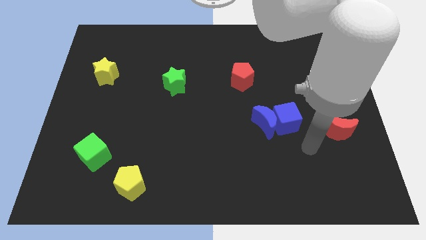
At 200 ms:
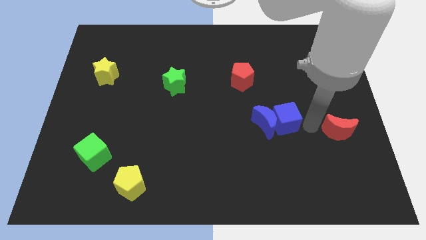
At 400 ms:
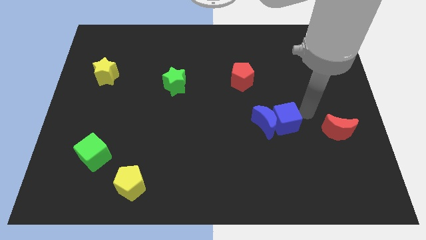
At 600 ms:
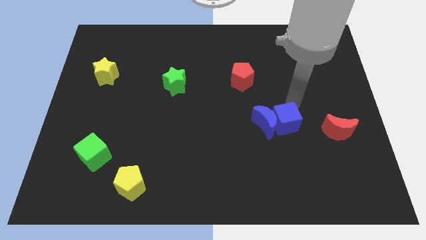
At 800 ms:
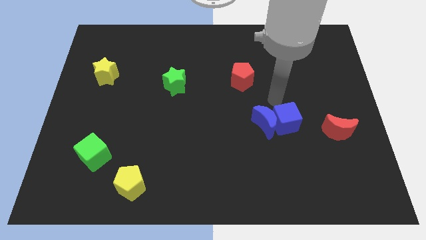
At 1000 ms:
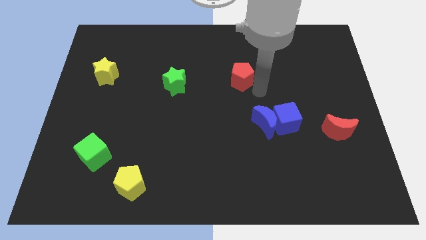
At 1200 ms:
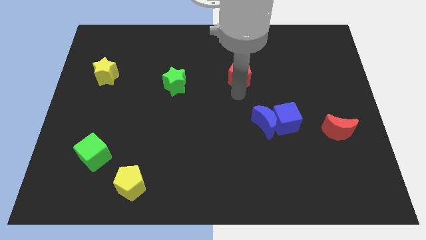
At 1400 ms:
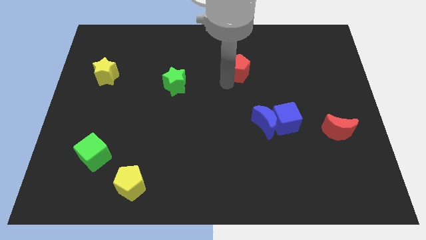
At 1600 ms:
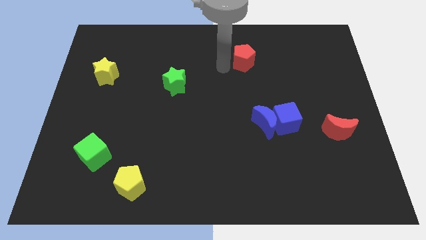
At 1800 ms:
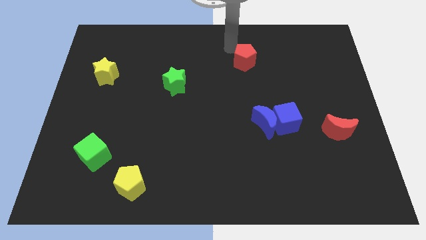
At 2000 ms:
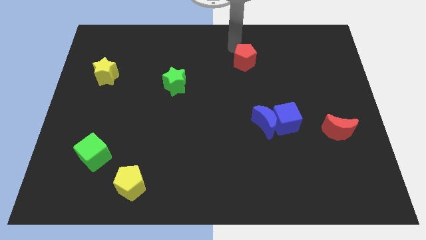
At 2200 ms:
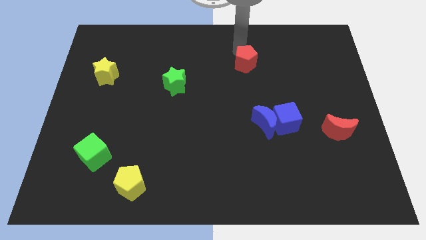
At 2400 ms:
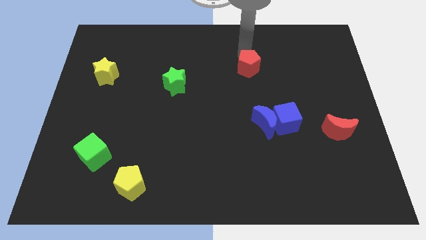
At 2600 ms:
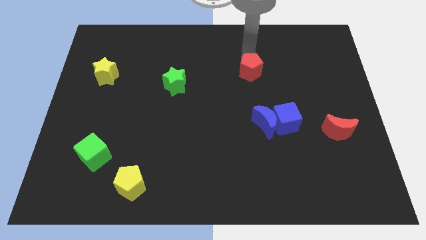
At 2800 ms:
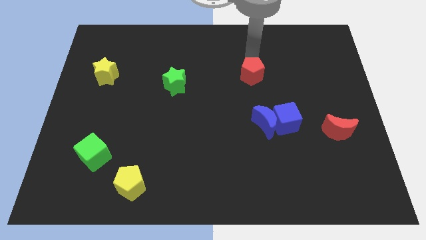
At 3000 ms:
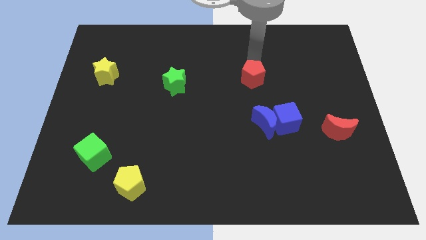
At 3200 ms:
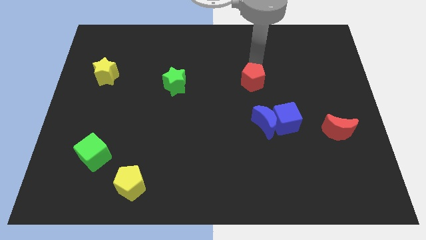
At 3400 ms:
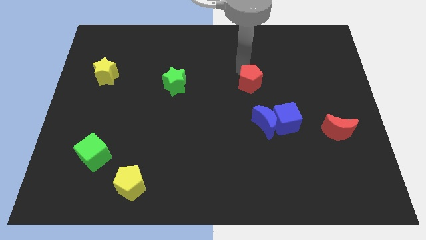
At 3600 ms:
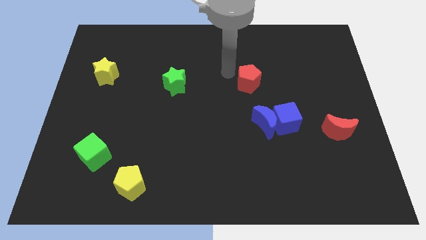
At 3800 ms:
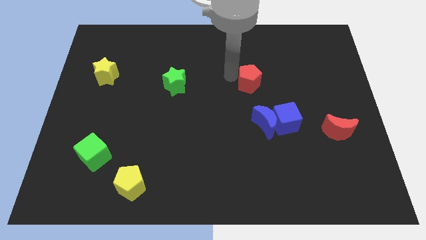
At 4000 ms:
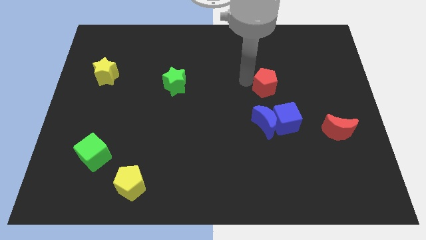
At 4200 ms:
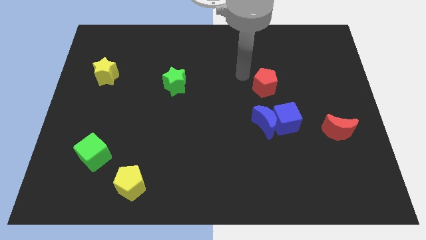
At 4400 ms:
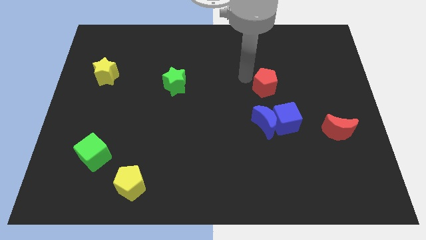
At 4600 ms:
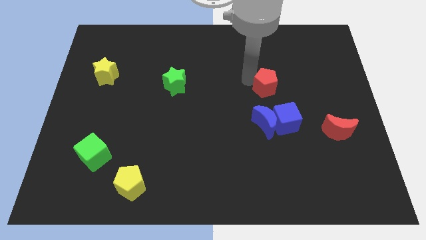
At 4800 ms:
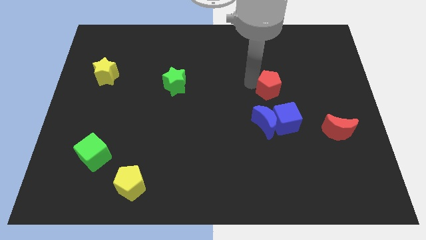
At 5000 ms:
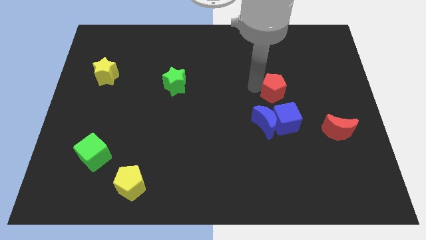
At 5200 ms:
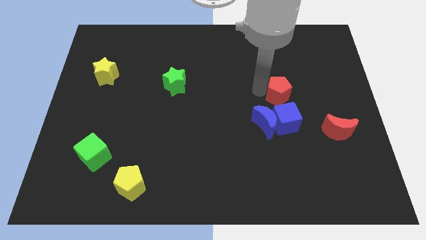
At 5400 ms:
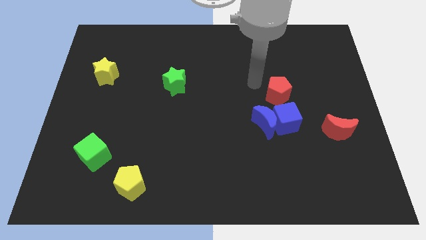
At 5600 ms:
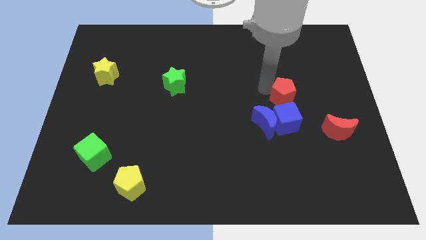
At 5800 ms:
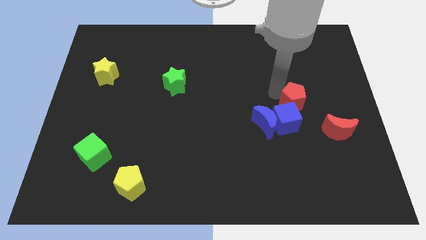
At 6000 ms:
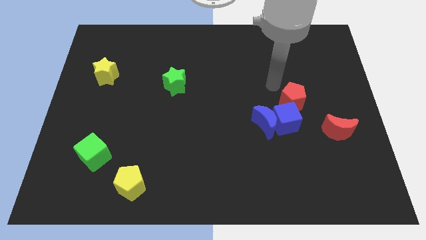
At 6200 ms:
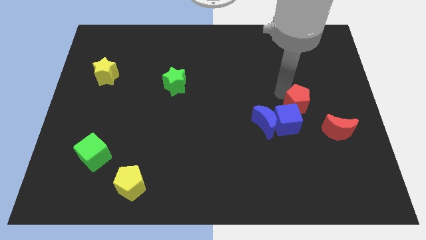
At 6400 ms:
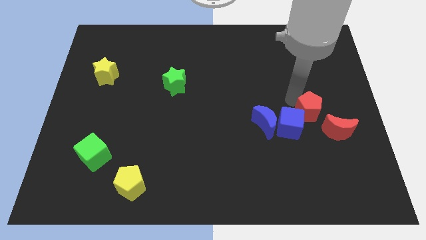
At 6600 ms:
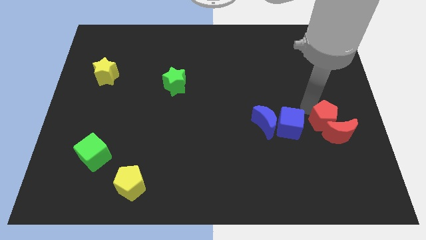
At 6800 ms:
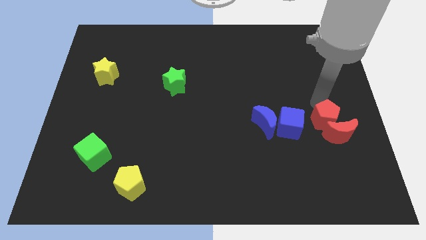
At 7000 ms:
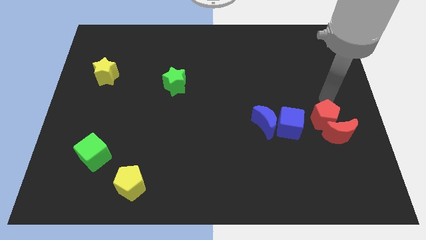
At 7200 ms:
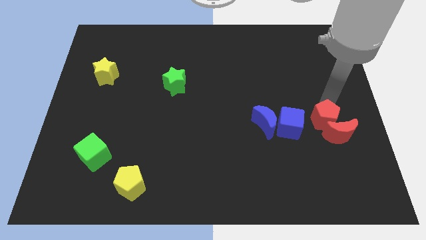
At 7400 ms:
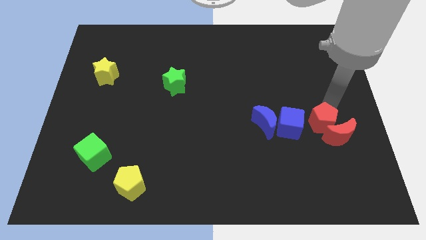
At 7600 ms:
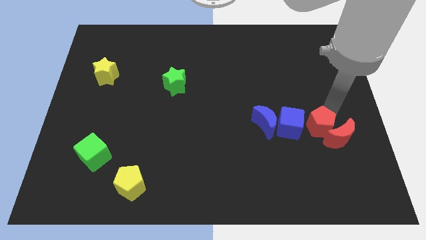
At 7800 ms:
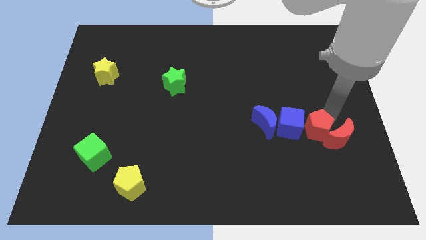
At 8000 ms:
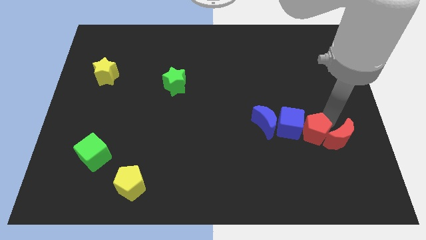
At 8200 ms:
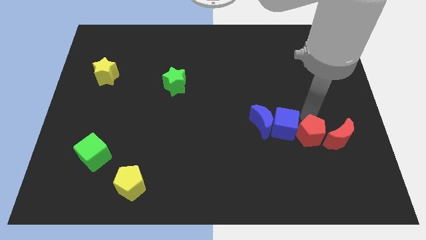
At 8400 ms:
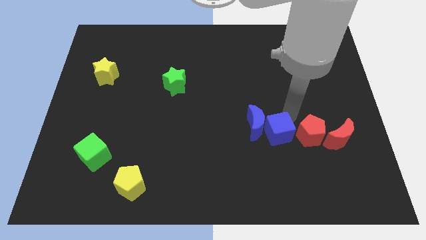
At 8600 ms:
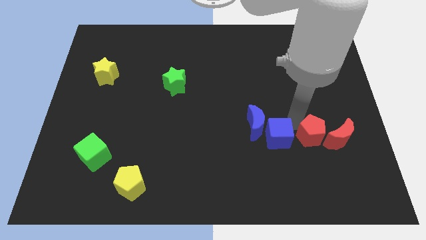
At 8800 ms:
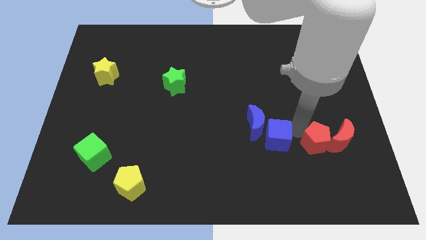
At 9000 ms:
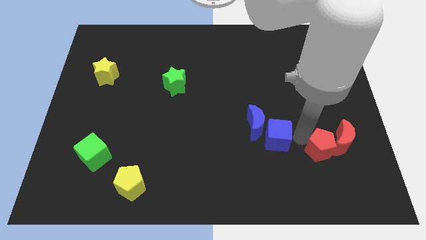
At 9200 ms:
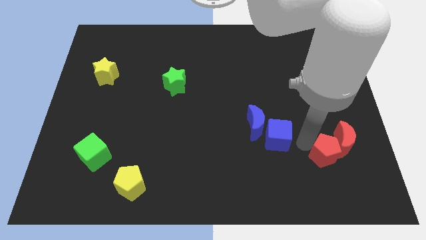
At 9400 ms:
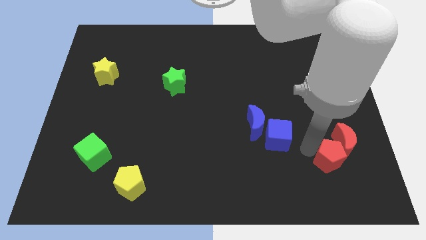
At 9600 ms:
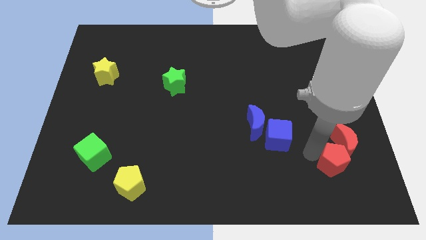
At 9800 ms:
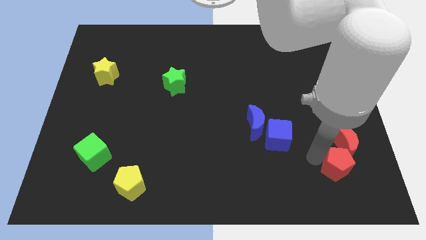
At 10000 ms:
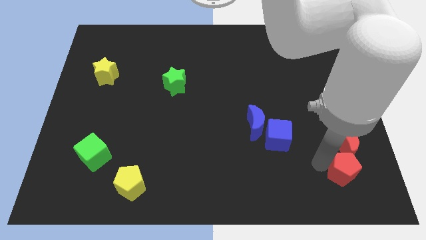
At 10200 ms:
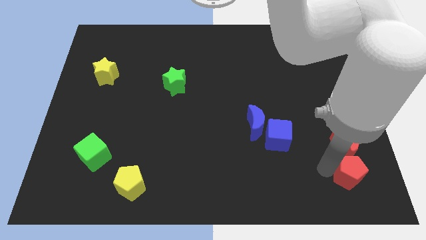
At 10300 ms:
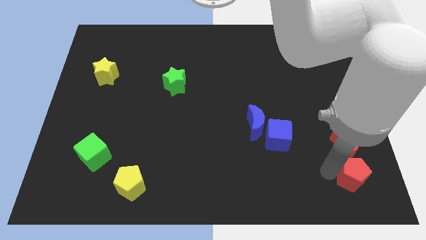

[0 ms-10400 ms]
move the red pentagon to the bottom right

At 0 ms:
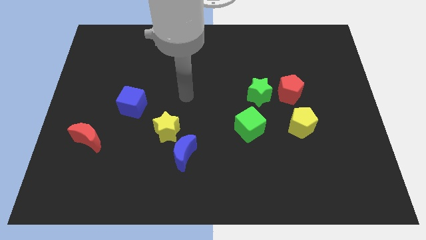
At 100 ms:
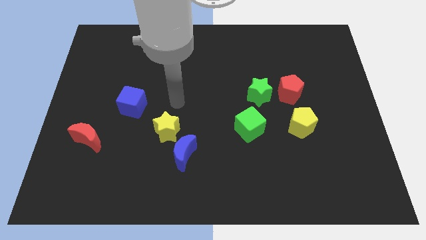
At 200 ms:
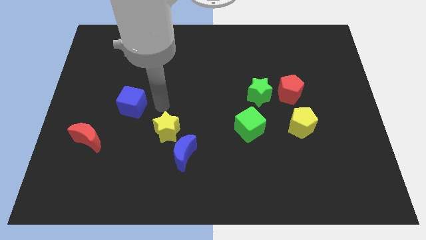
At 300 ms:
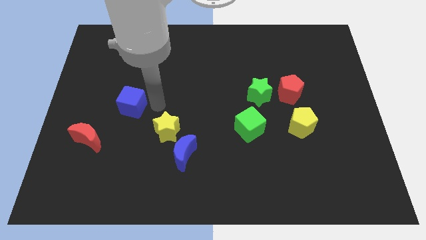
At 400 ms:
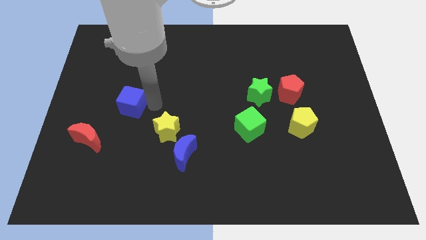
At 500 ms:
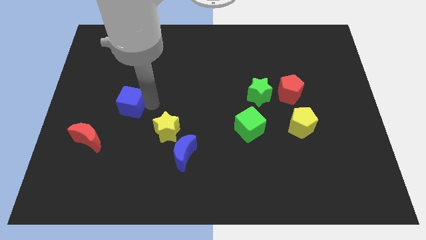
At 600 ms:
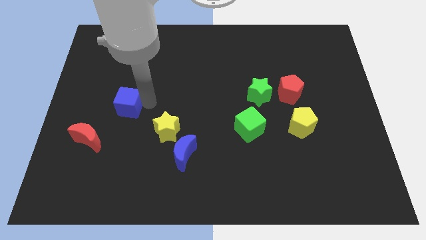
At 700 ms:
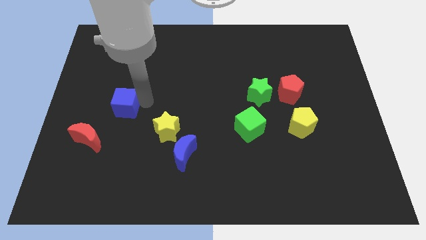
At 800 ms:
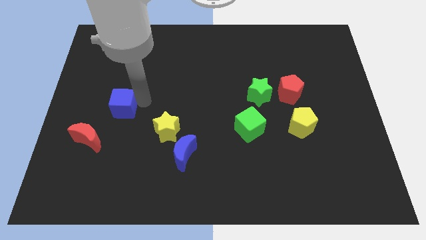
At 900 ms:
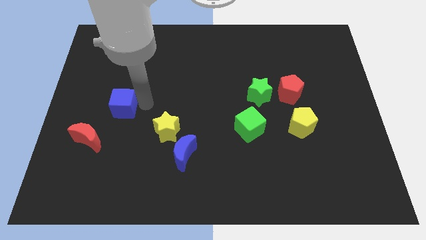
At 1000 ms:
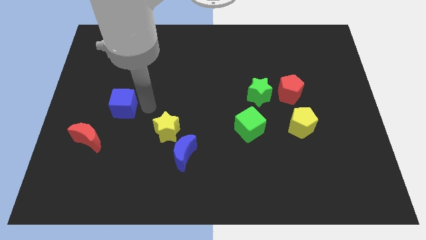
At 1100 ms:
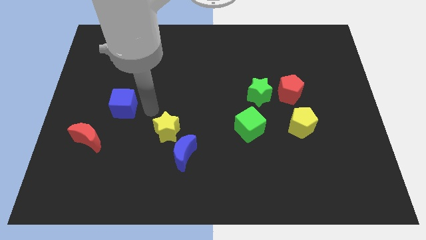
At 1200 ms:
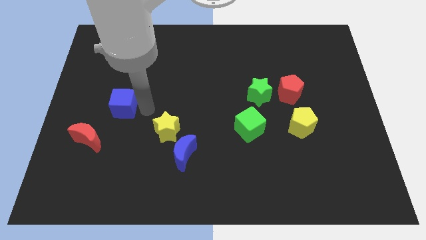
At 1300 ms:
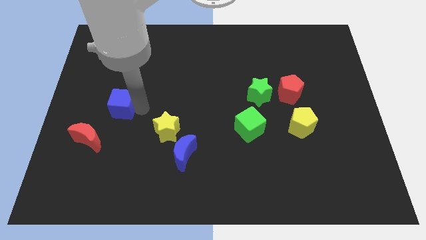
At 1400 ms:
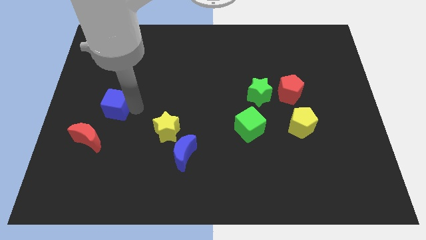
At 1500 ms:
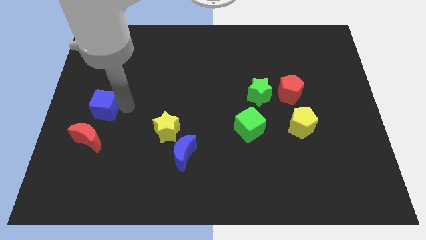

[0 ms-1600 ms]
move the blue cube to the left side
